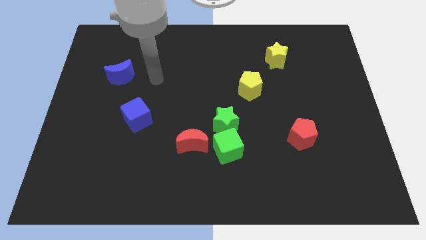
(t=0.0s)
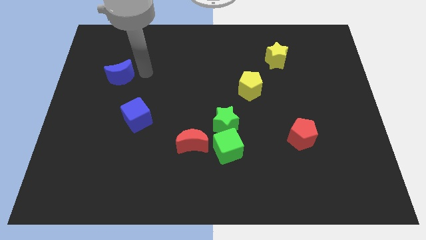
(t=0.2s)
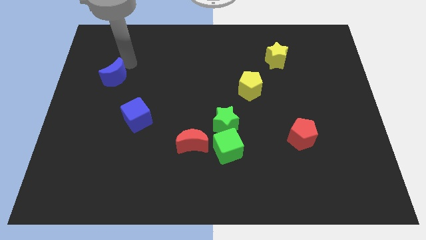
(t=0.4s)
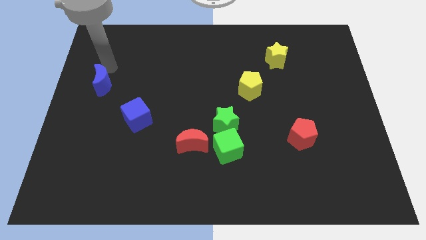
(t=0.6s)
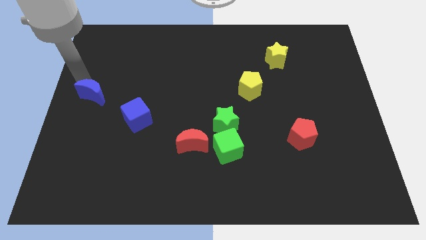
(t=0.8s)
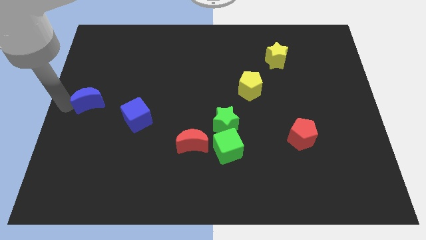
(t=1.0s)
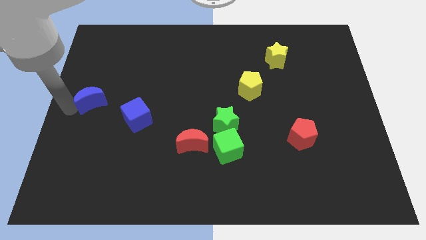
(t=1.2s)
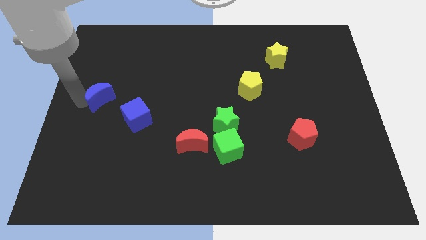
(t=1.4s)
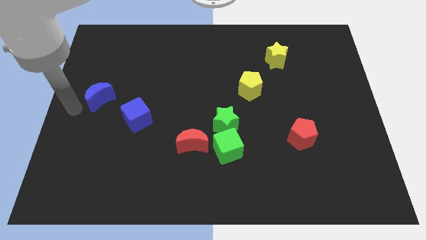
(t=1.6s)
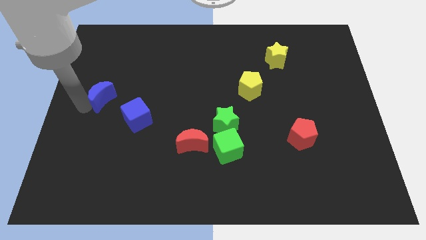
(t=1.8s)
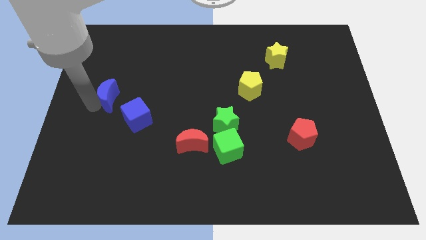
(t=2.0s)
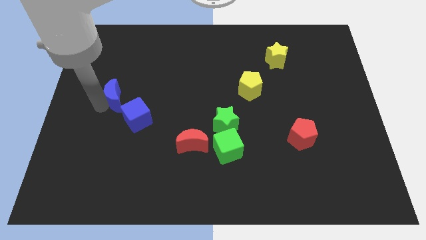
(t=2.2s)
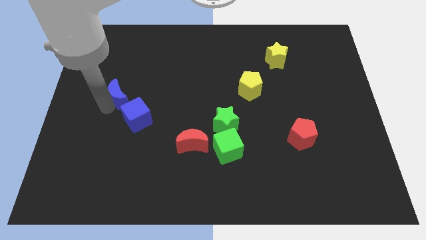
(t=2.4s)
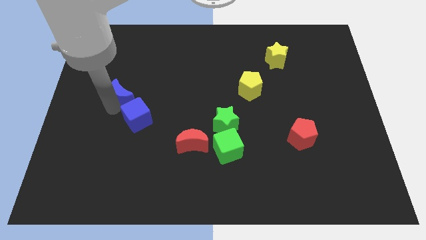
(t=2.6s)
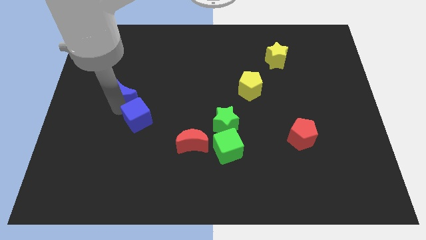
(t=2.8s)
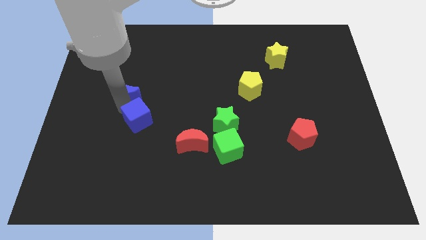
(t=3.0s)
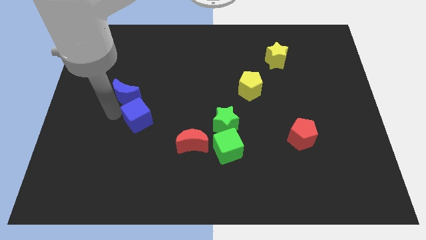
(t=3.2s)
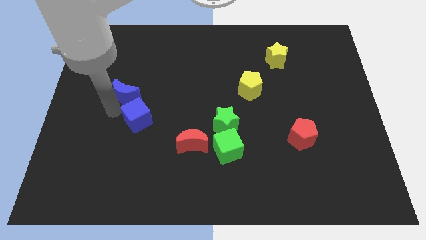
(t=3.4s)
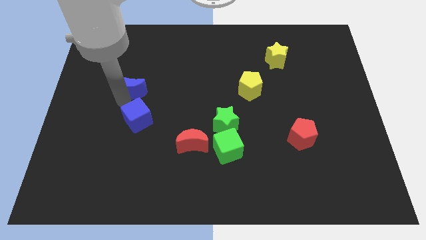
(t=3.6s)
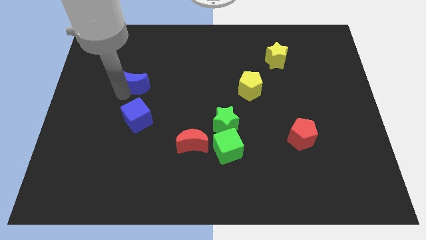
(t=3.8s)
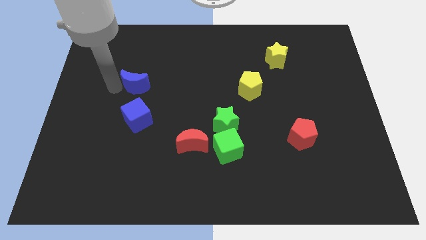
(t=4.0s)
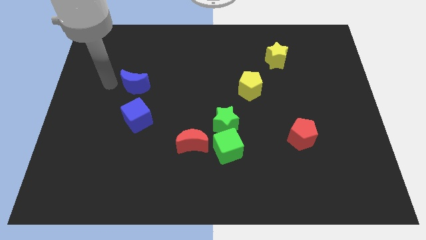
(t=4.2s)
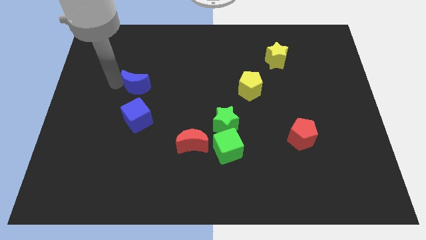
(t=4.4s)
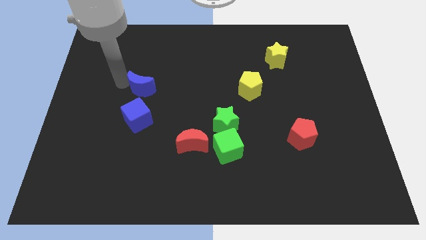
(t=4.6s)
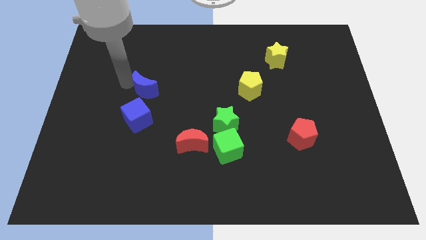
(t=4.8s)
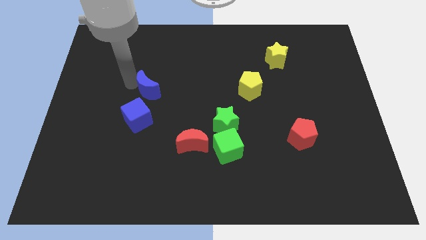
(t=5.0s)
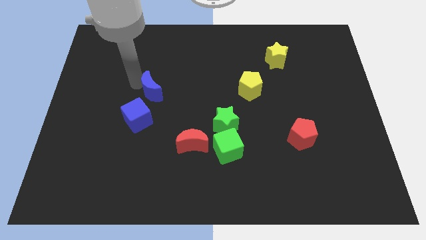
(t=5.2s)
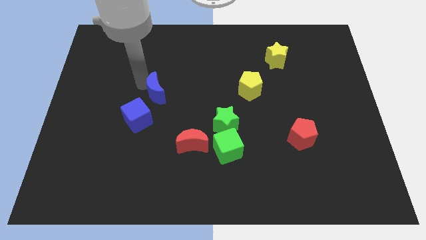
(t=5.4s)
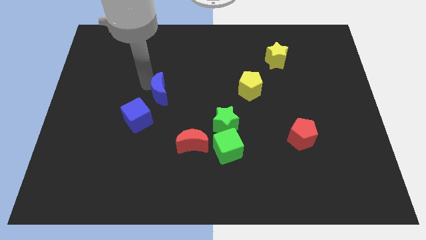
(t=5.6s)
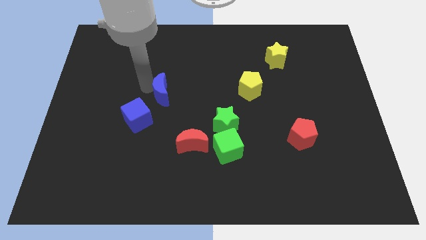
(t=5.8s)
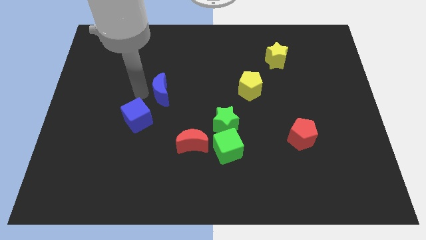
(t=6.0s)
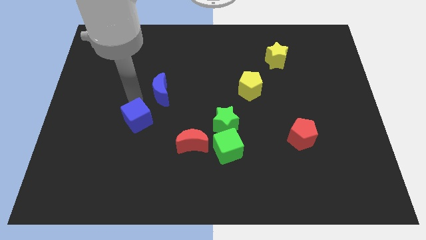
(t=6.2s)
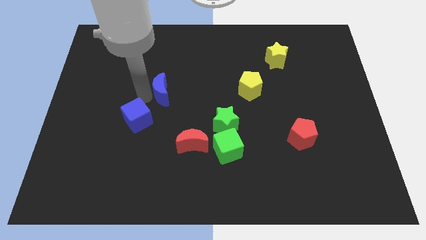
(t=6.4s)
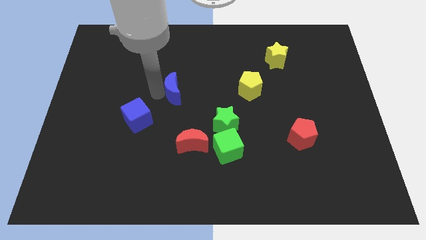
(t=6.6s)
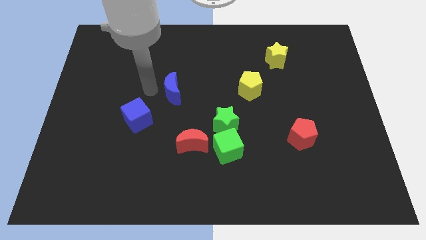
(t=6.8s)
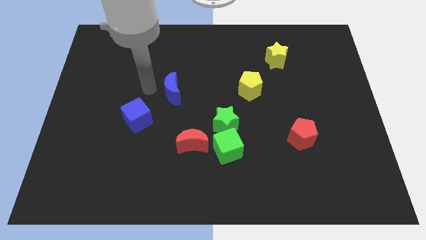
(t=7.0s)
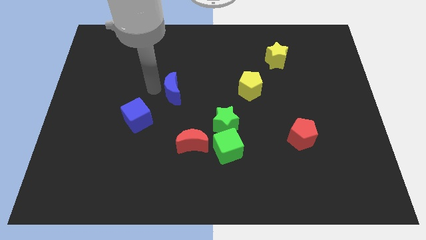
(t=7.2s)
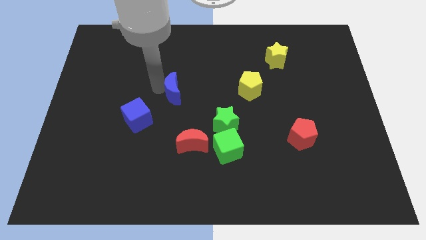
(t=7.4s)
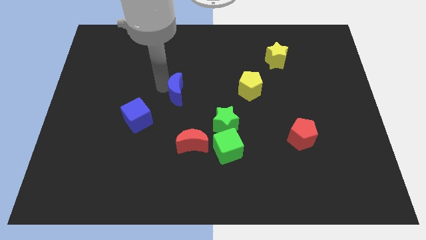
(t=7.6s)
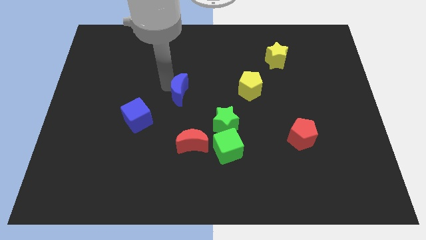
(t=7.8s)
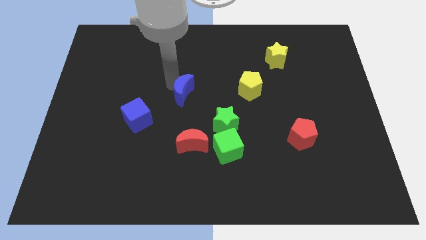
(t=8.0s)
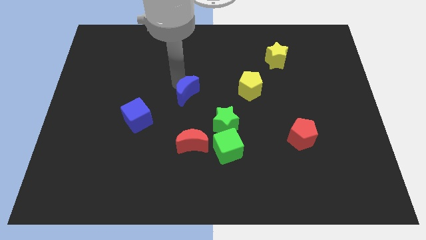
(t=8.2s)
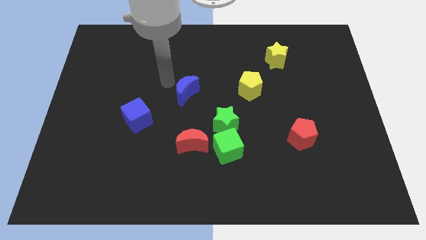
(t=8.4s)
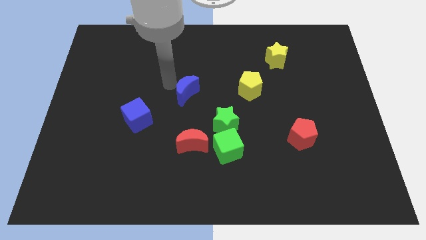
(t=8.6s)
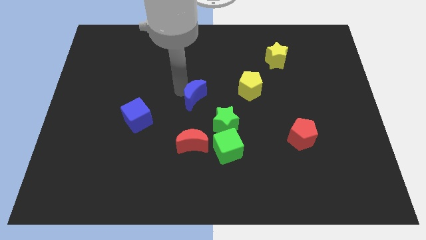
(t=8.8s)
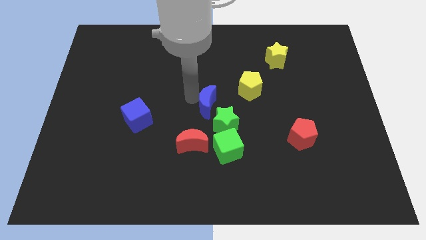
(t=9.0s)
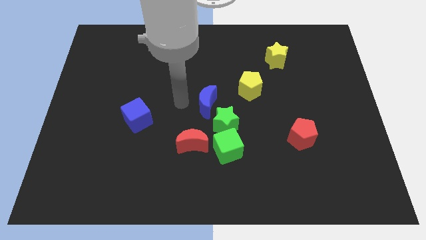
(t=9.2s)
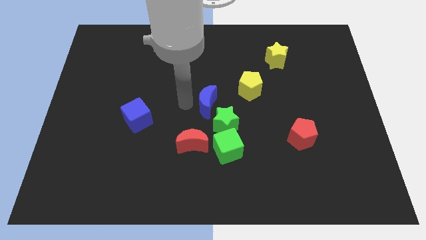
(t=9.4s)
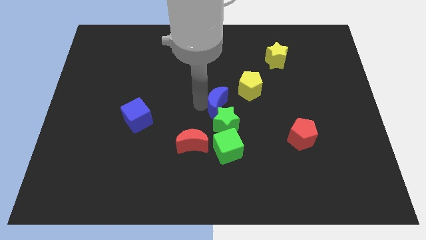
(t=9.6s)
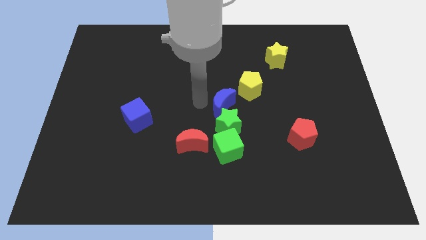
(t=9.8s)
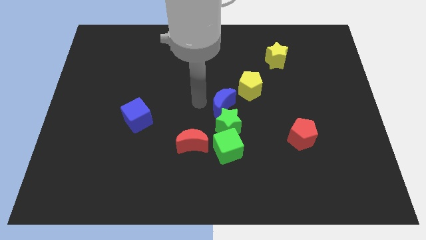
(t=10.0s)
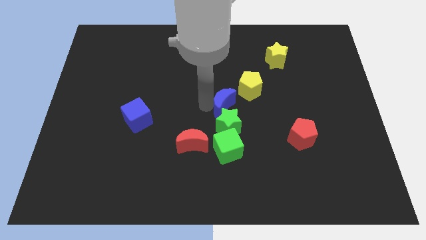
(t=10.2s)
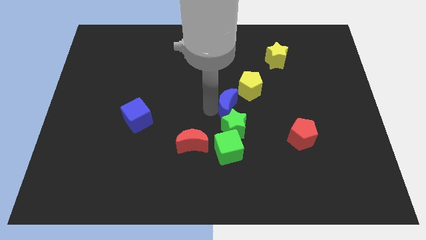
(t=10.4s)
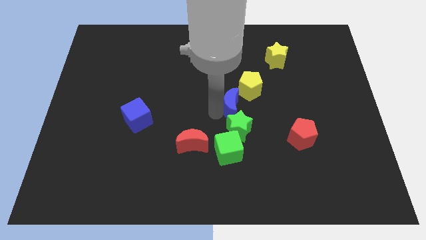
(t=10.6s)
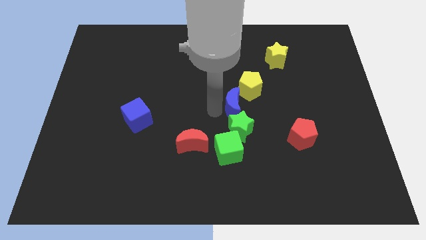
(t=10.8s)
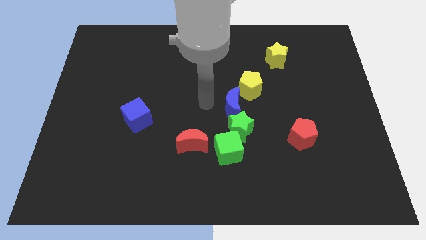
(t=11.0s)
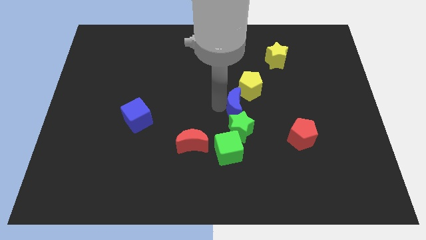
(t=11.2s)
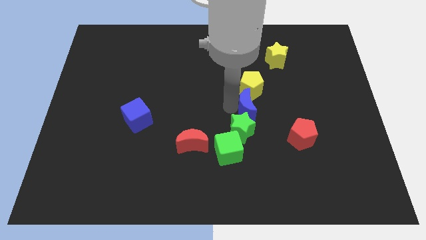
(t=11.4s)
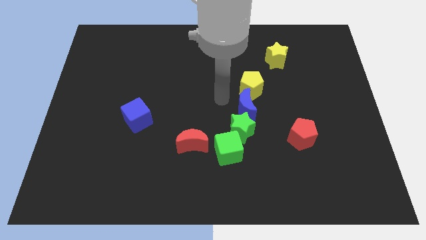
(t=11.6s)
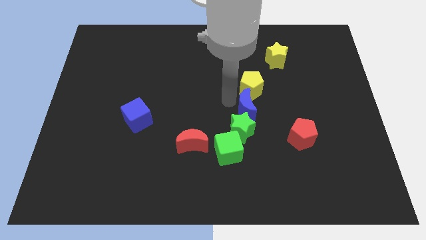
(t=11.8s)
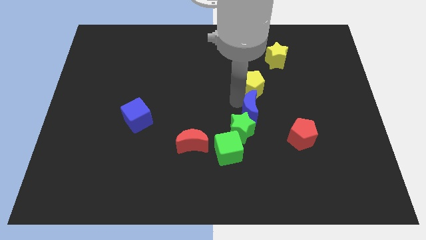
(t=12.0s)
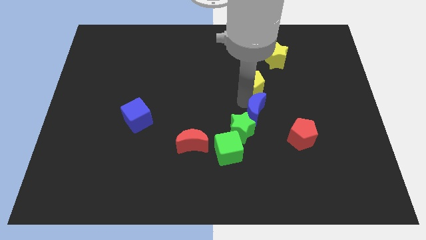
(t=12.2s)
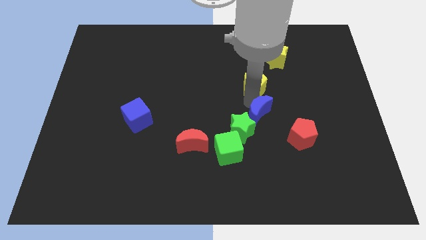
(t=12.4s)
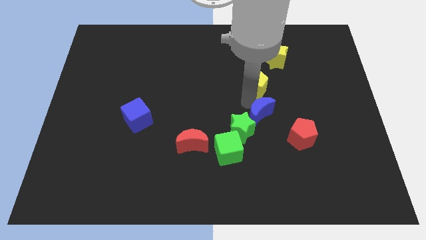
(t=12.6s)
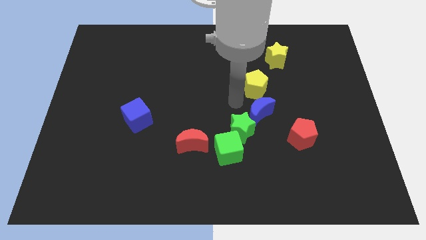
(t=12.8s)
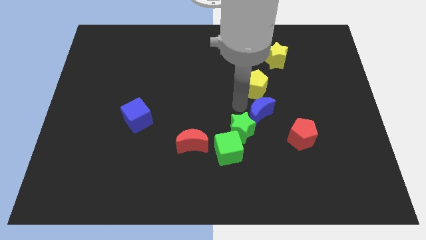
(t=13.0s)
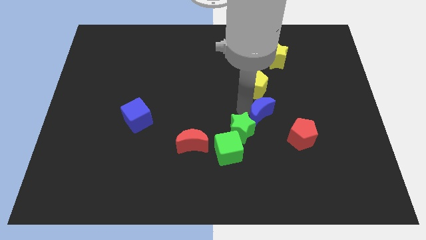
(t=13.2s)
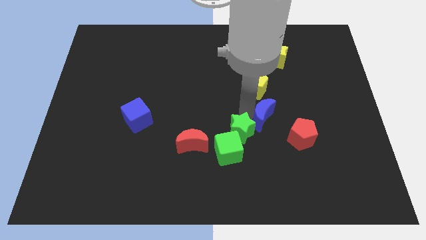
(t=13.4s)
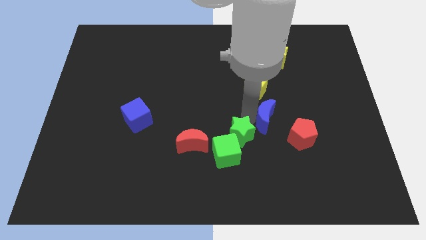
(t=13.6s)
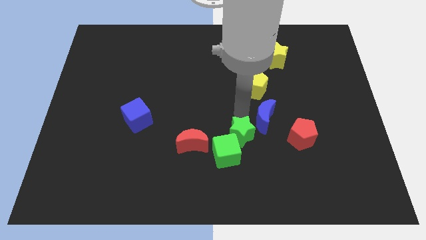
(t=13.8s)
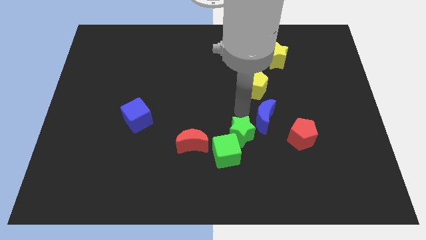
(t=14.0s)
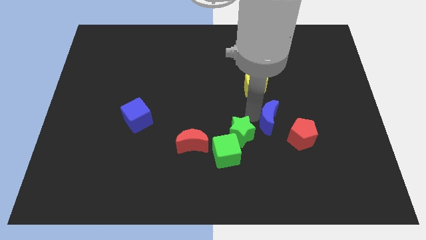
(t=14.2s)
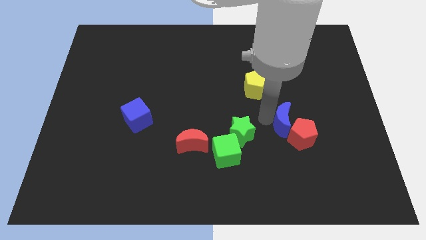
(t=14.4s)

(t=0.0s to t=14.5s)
move the blue moon next to the red pentagon

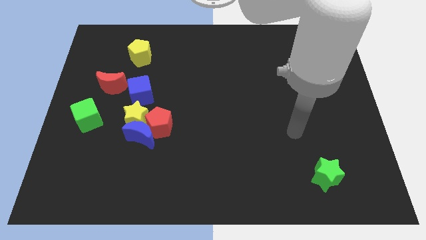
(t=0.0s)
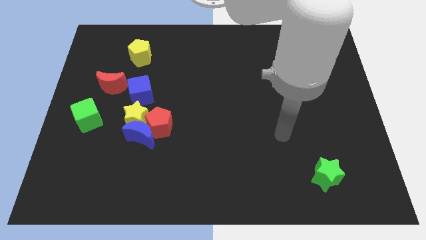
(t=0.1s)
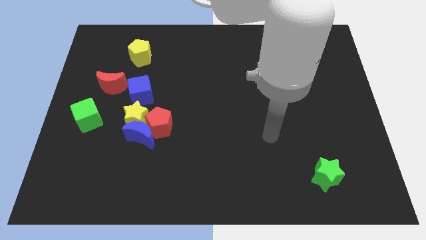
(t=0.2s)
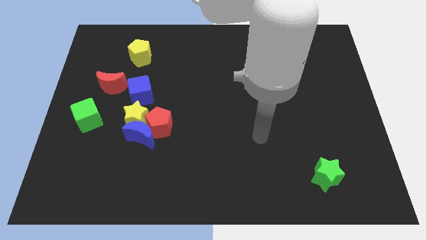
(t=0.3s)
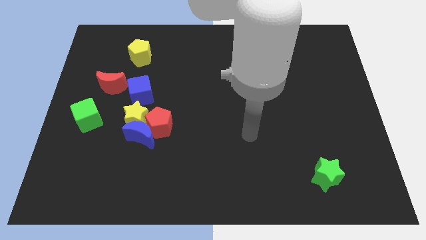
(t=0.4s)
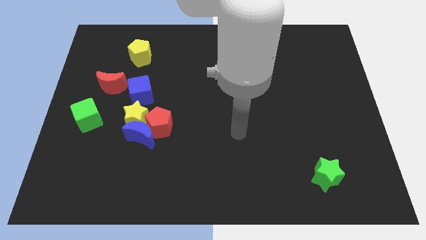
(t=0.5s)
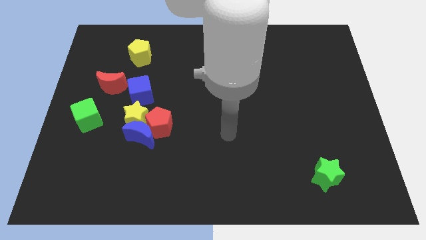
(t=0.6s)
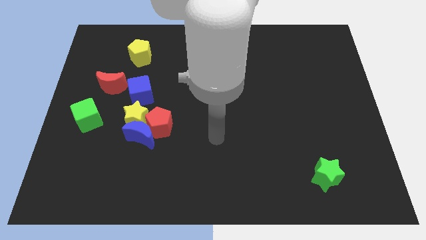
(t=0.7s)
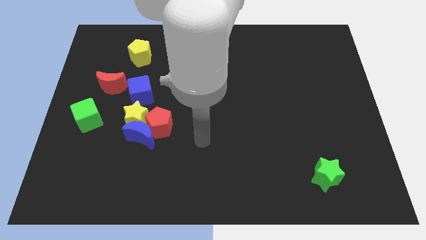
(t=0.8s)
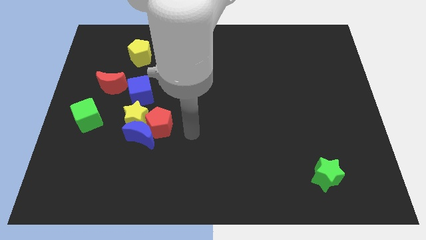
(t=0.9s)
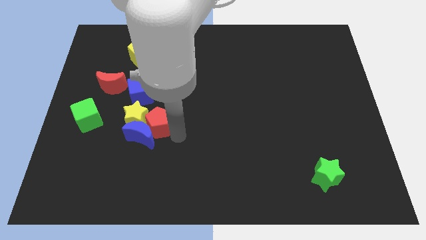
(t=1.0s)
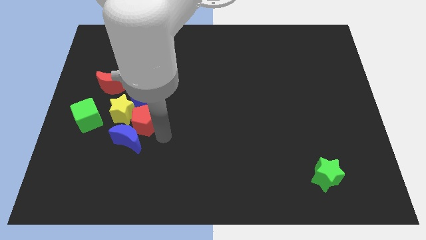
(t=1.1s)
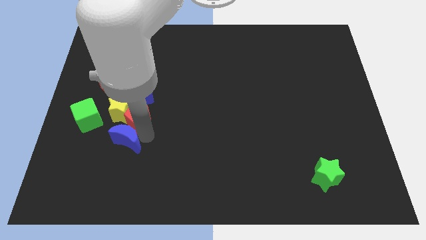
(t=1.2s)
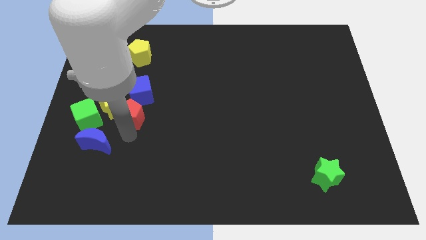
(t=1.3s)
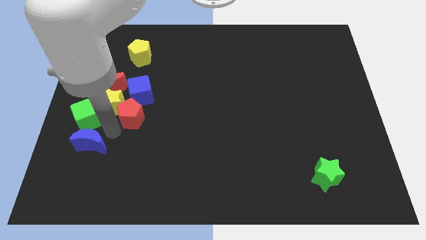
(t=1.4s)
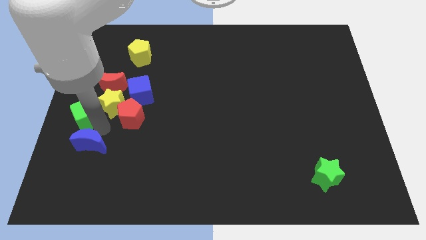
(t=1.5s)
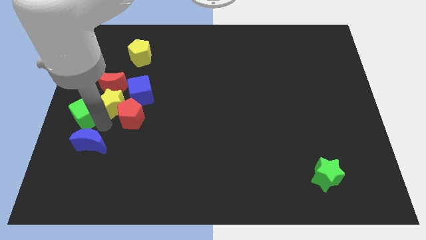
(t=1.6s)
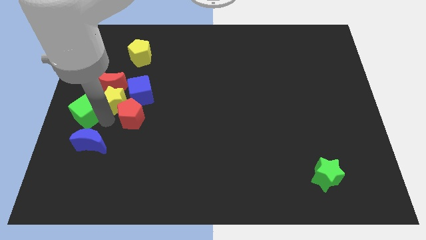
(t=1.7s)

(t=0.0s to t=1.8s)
push the yellow star close to the red moon
